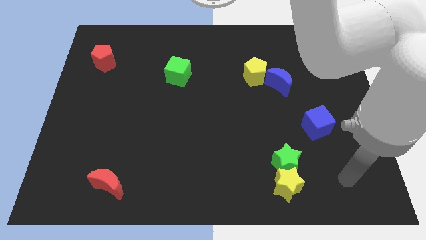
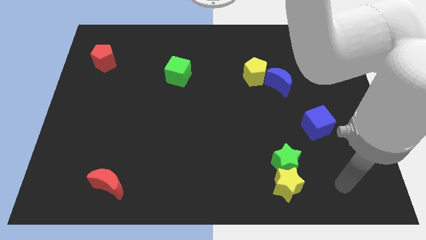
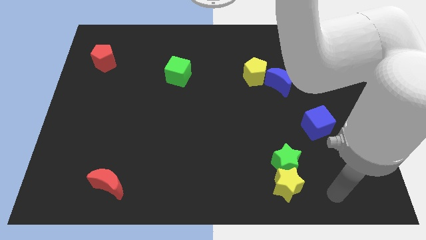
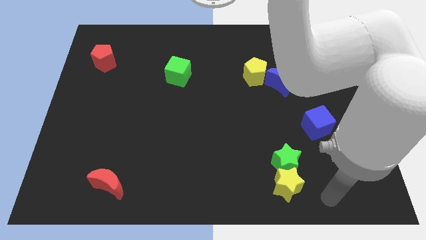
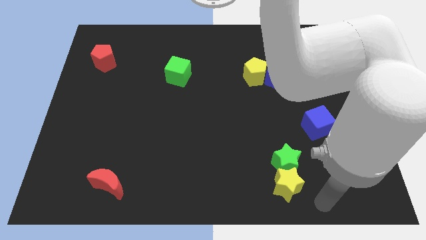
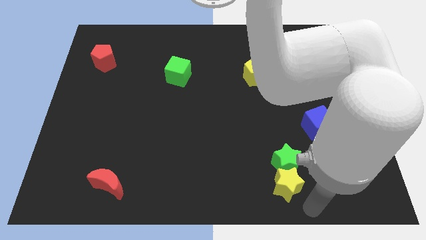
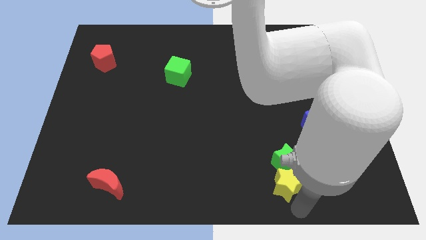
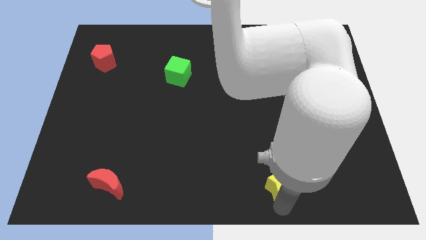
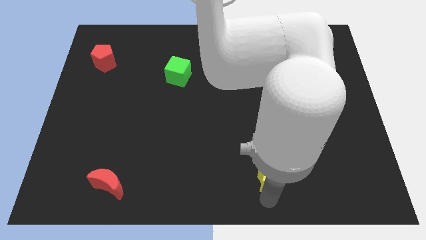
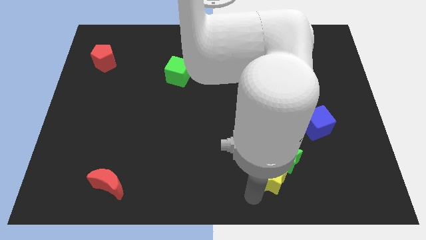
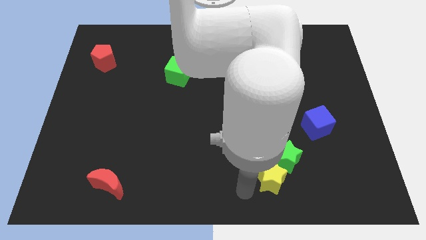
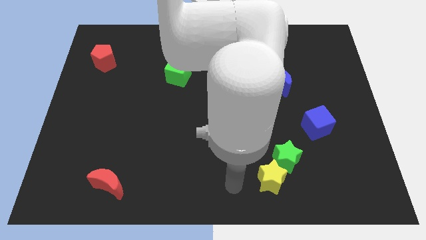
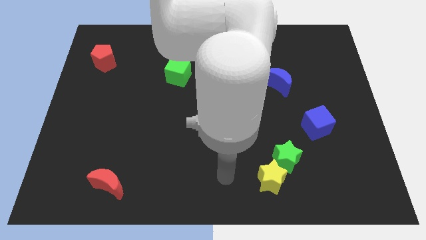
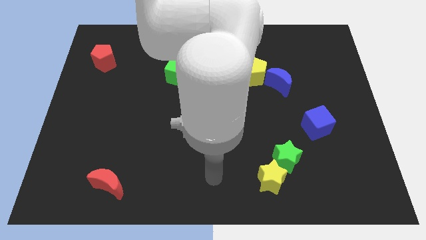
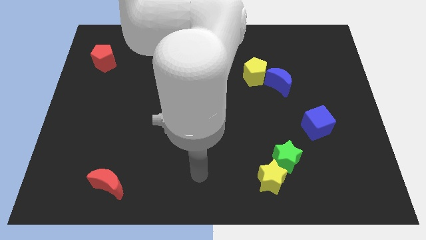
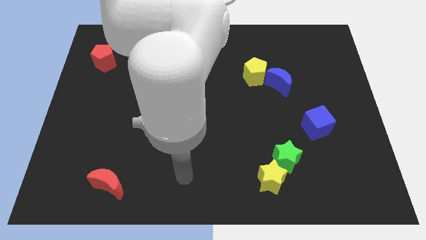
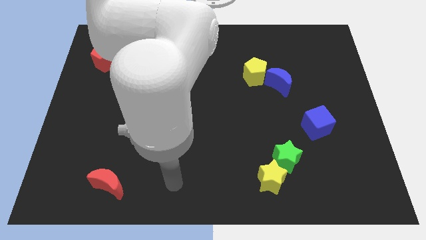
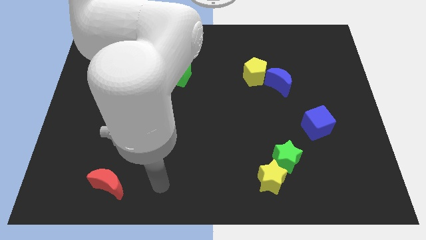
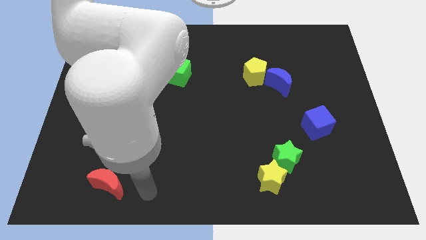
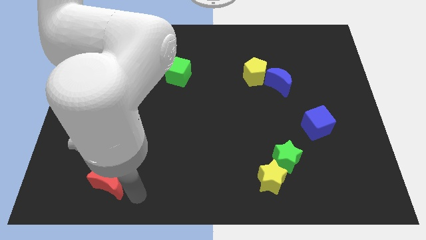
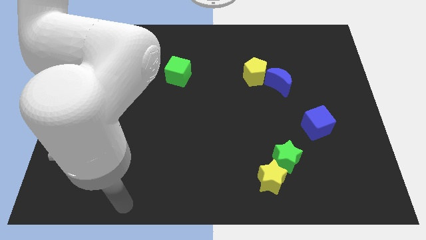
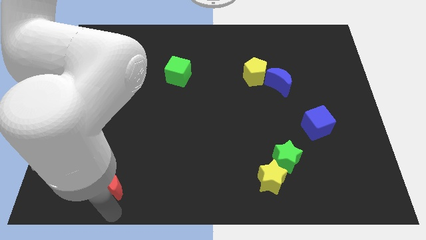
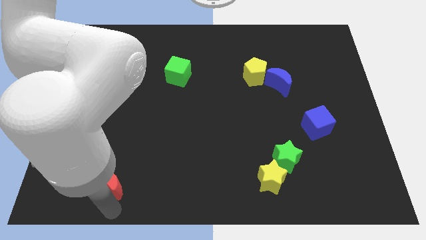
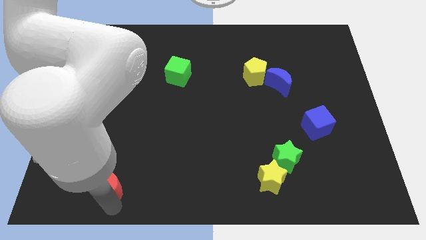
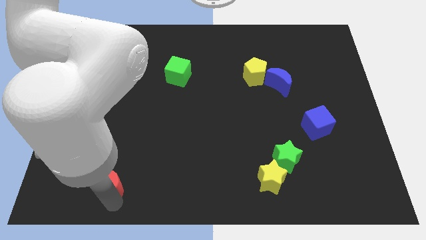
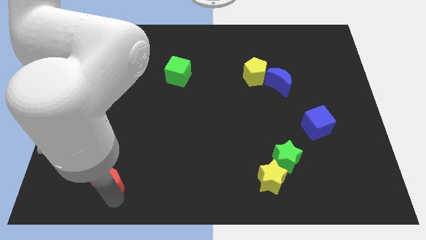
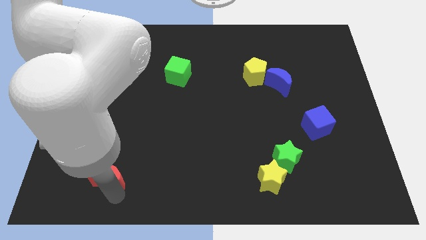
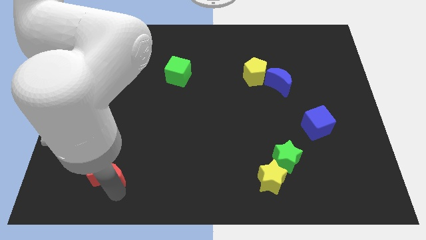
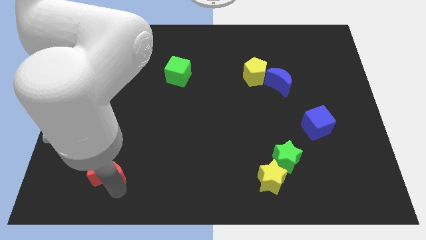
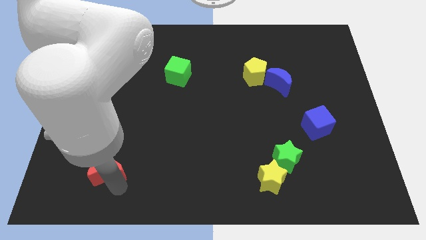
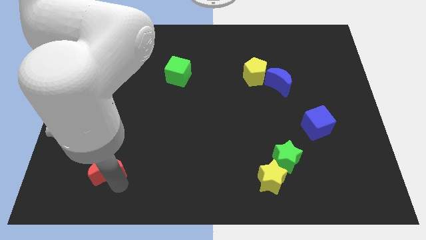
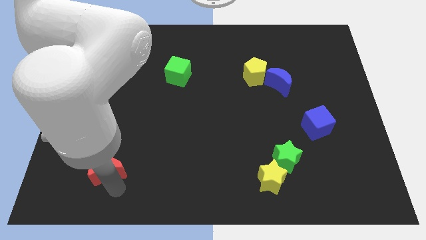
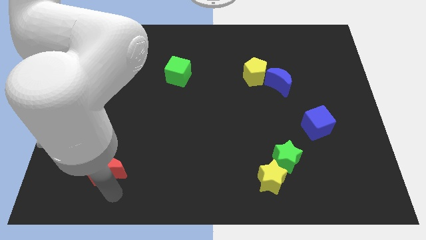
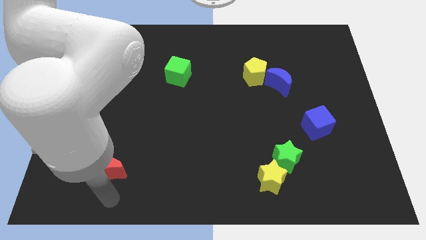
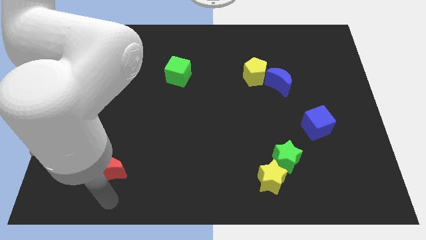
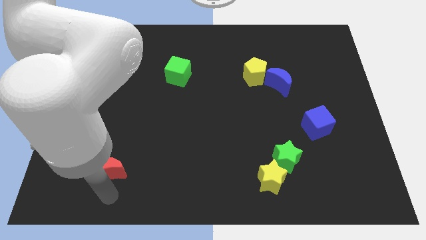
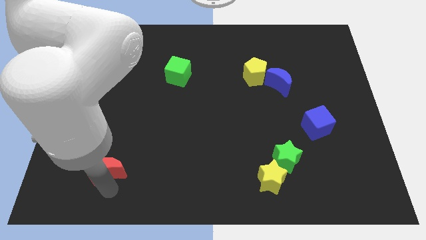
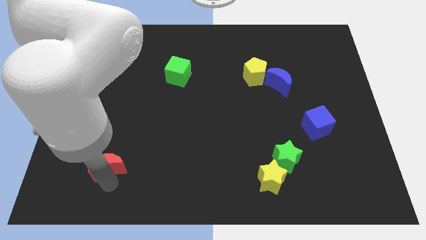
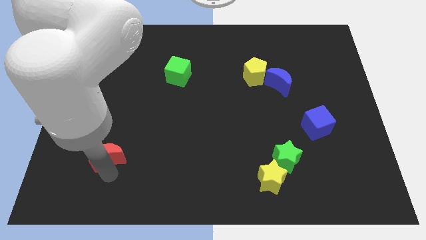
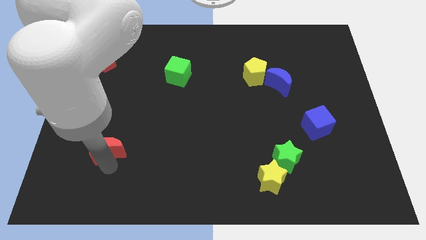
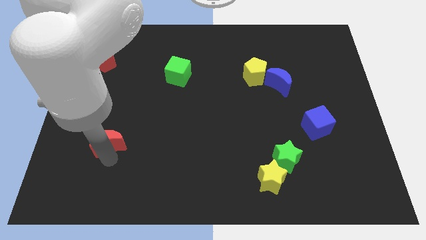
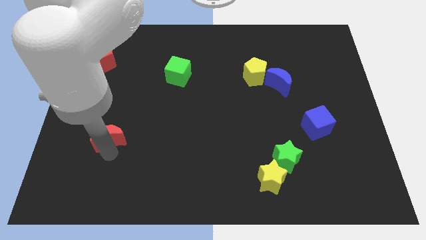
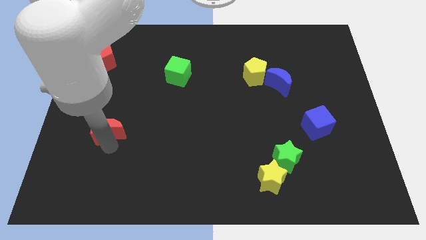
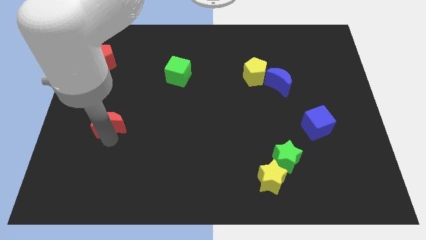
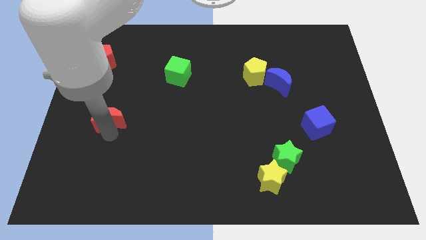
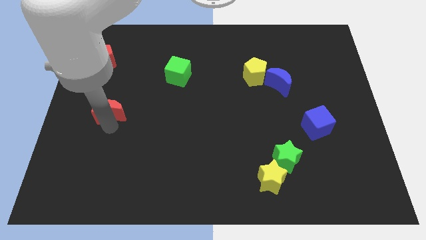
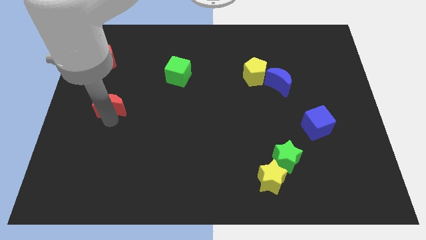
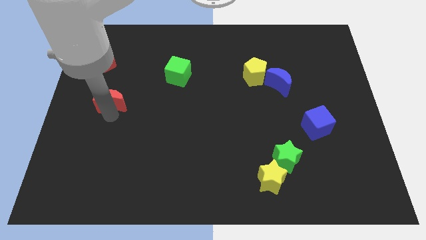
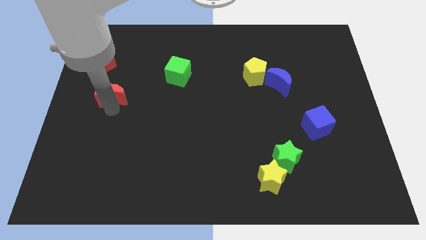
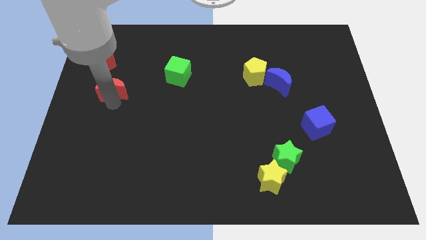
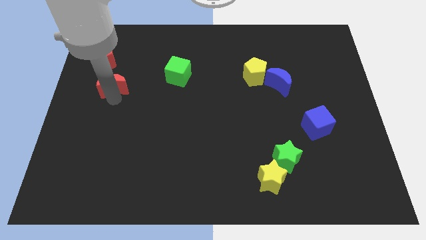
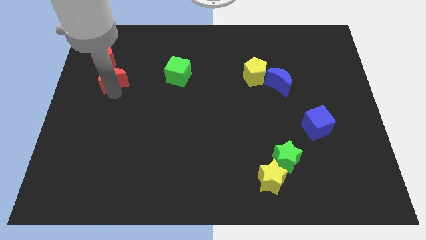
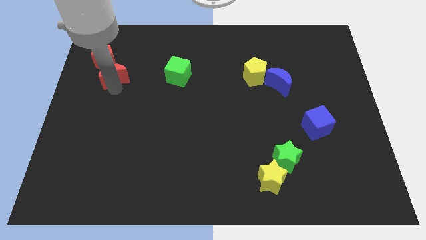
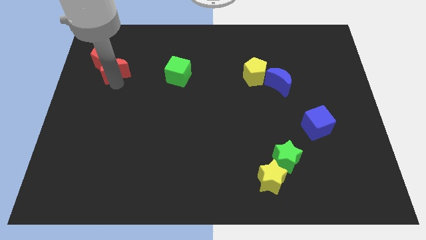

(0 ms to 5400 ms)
slide the red moon close to the red pentagon

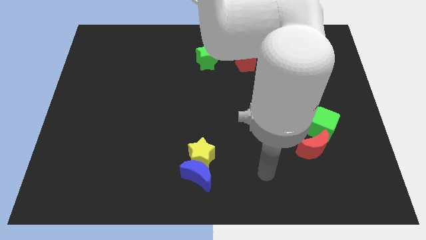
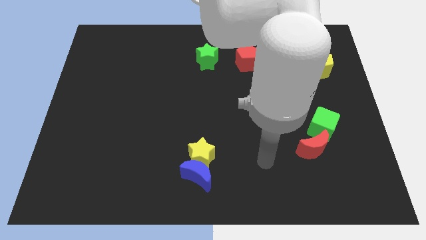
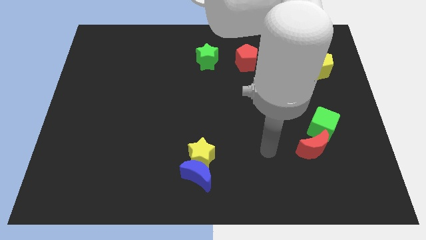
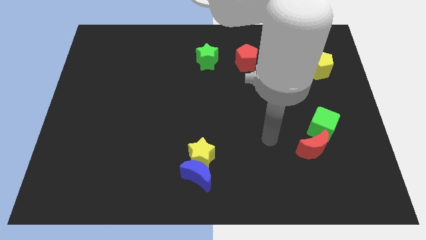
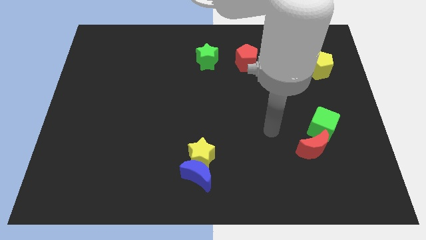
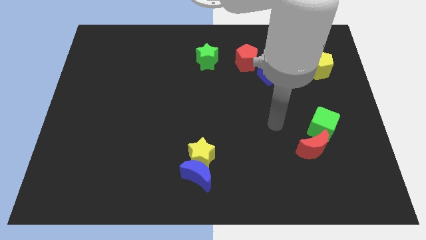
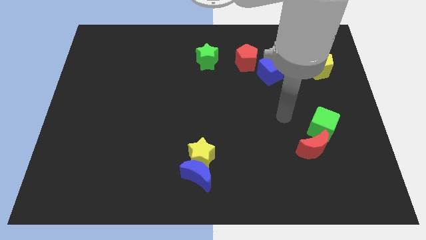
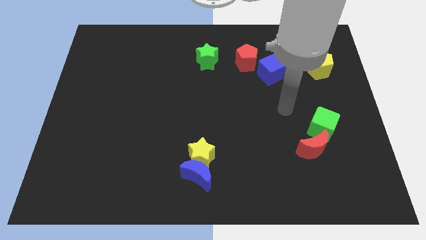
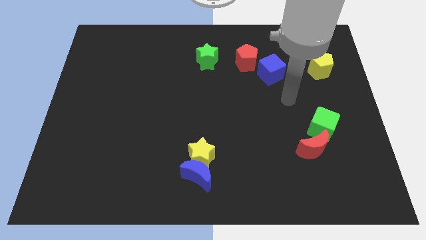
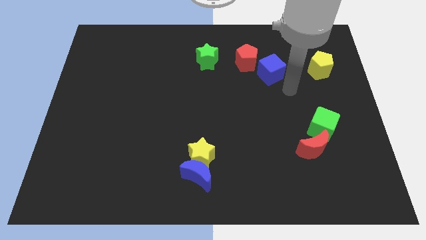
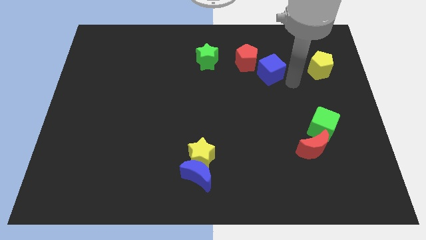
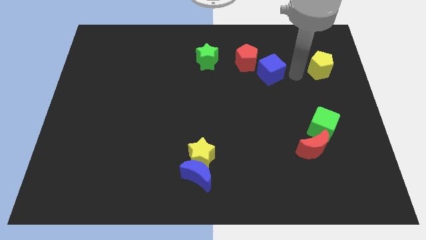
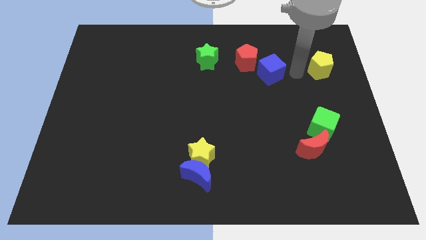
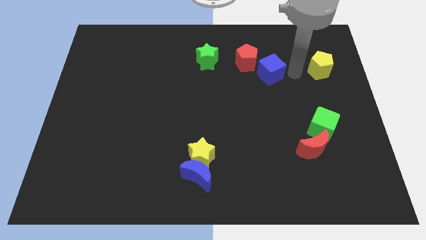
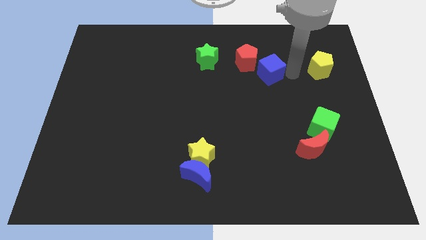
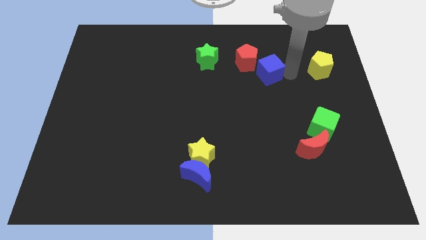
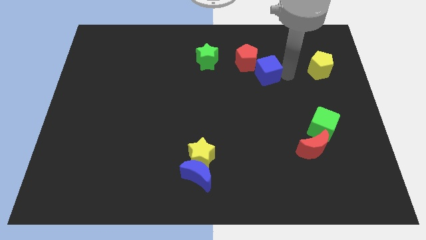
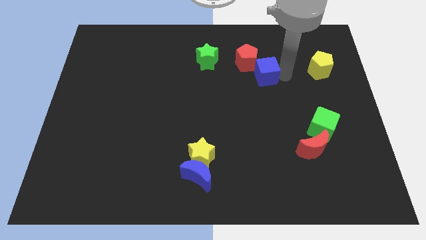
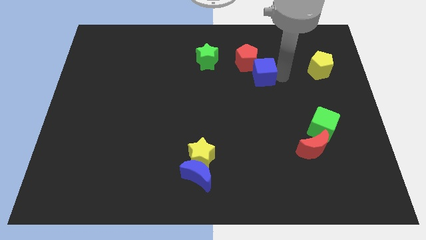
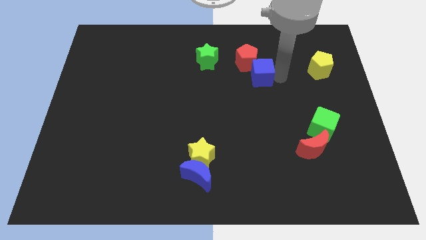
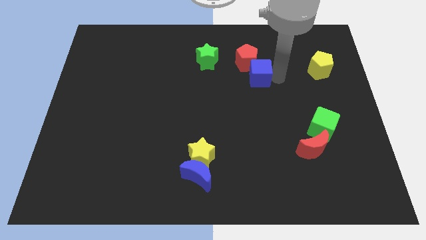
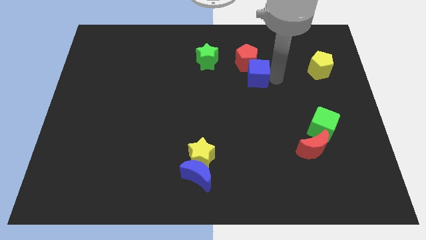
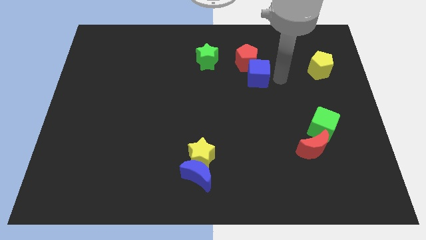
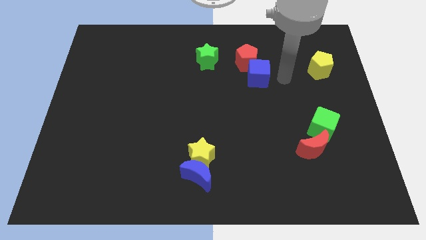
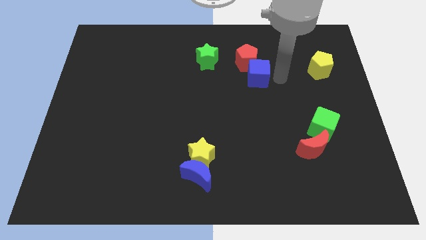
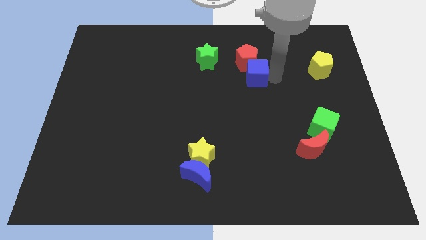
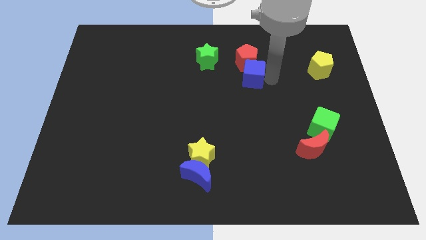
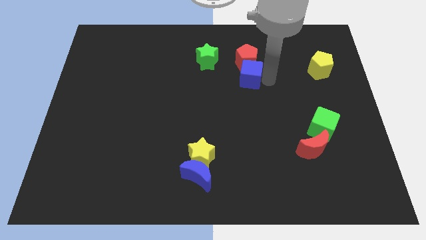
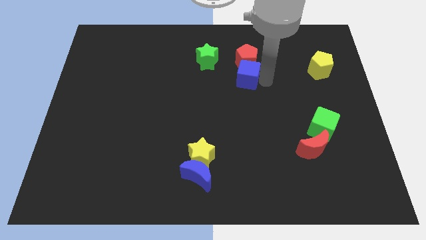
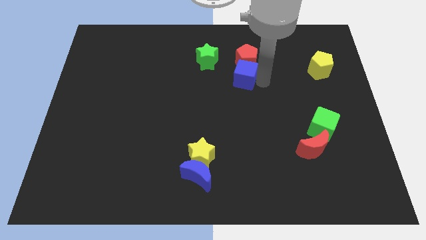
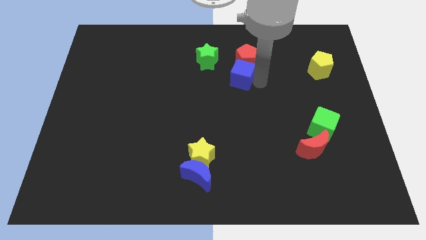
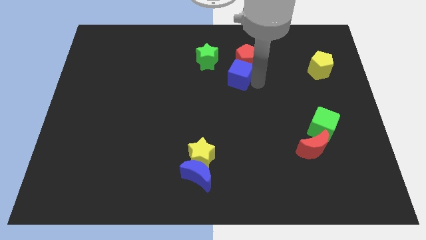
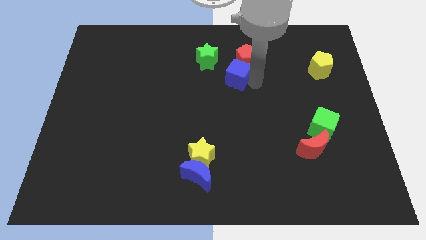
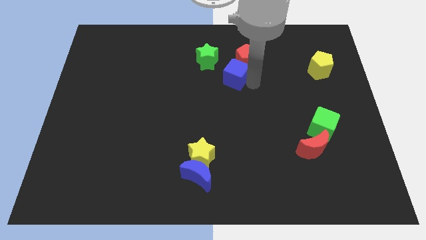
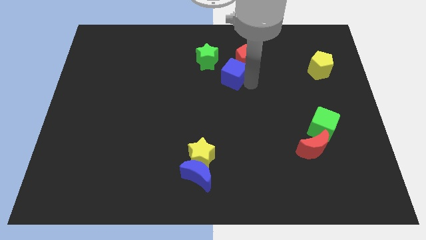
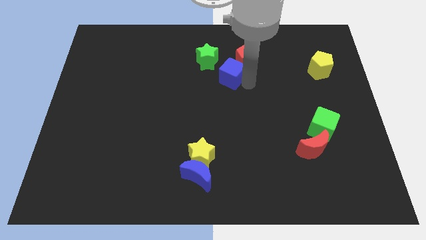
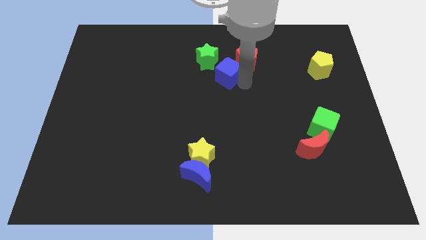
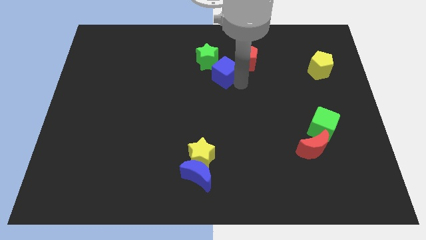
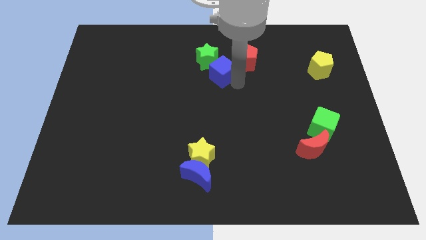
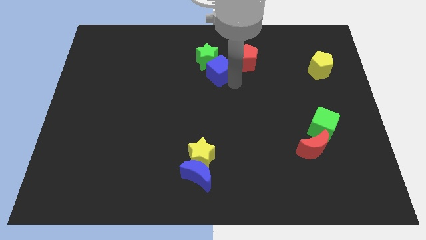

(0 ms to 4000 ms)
push the blue cube towards the green star
